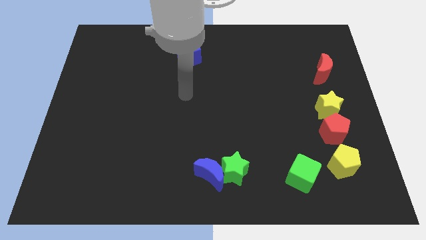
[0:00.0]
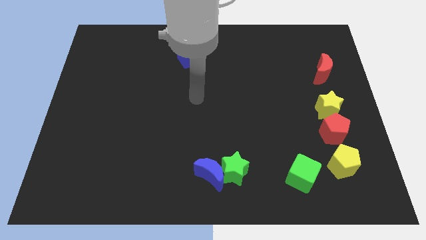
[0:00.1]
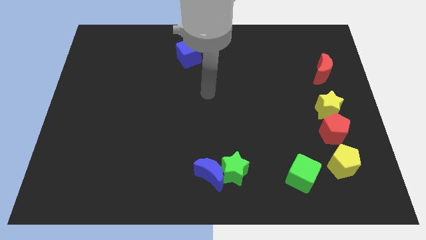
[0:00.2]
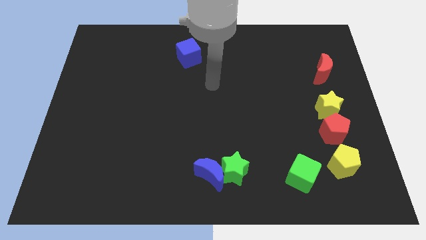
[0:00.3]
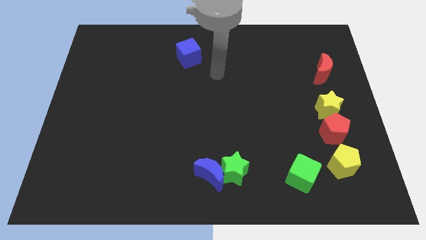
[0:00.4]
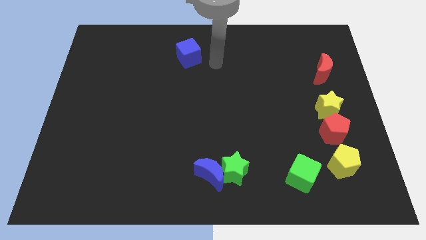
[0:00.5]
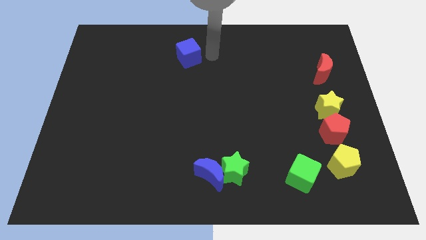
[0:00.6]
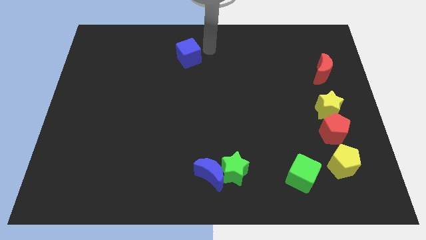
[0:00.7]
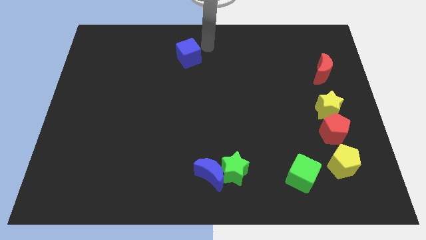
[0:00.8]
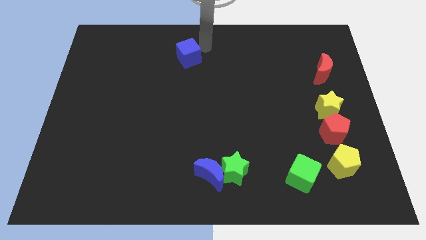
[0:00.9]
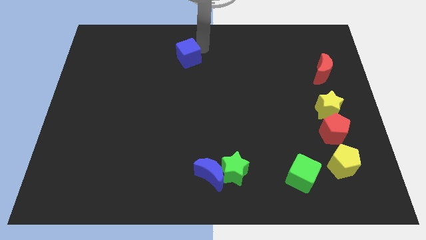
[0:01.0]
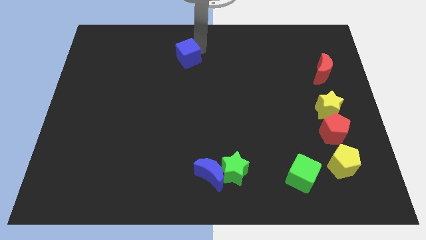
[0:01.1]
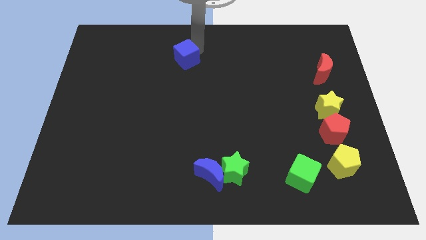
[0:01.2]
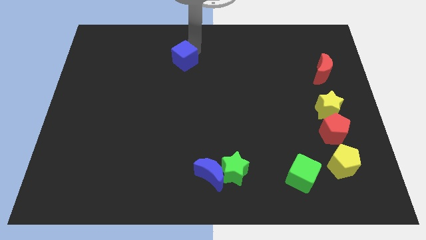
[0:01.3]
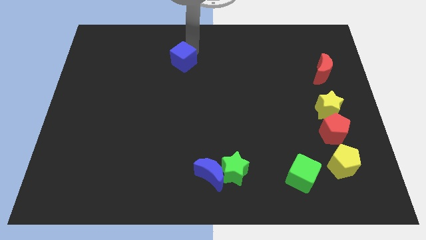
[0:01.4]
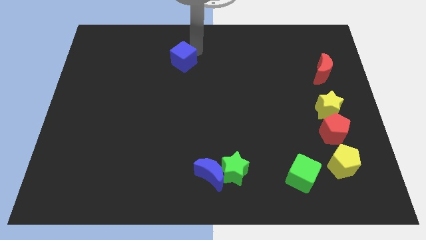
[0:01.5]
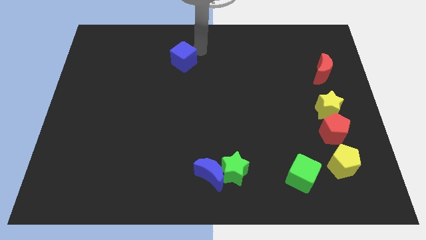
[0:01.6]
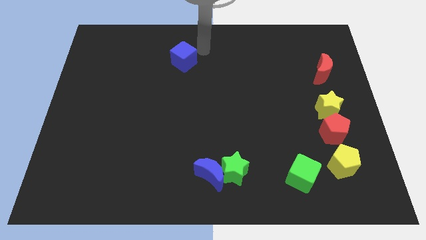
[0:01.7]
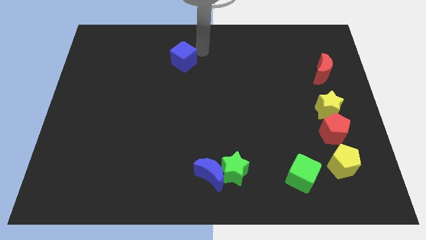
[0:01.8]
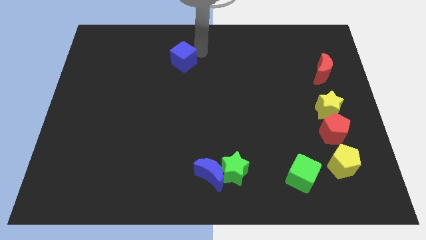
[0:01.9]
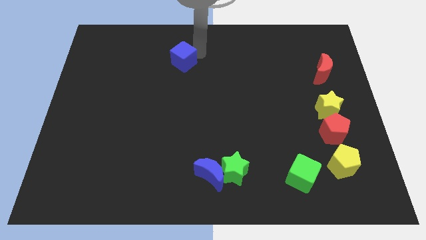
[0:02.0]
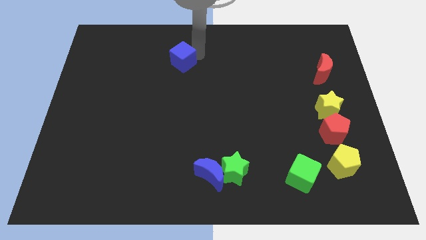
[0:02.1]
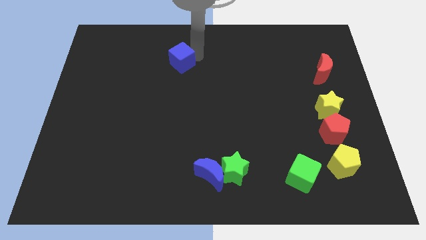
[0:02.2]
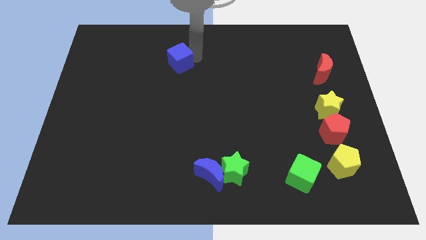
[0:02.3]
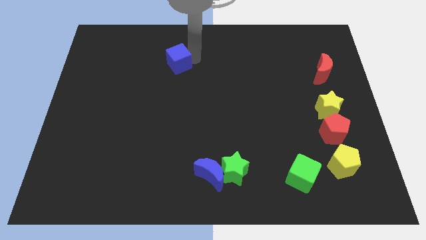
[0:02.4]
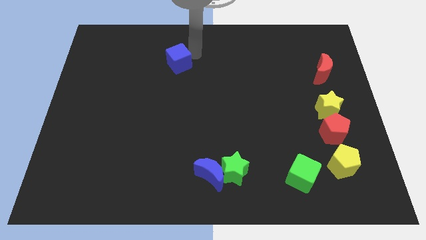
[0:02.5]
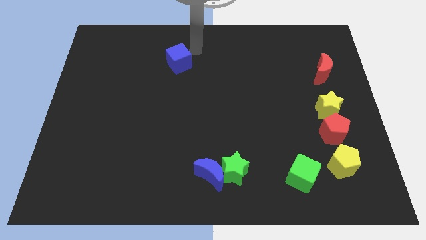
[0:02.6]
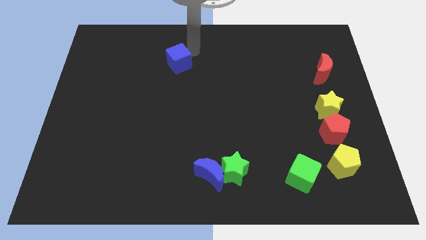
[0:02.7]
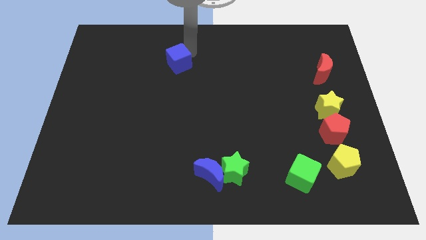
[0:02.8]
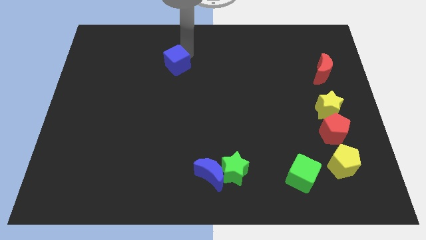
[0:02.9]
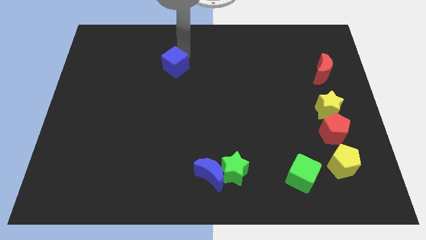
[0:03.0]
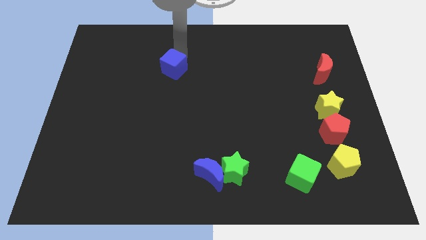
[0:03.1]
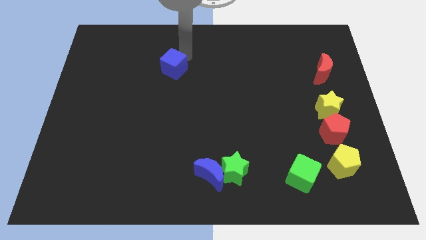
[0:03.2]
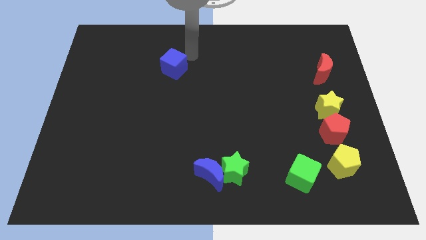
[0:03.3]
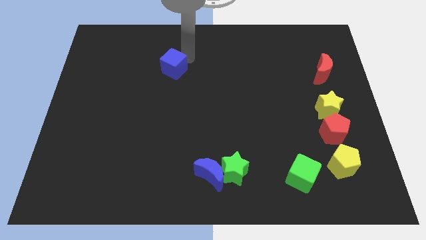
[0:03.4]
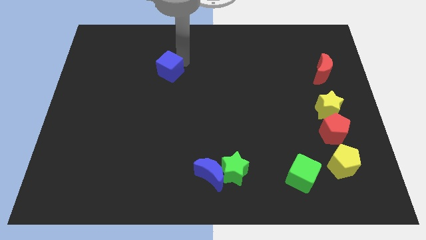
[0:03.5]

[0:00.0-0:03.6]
move the blue cube a bit downwards and left diagonally

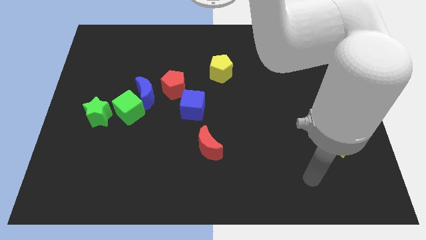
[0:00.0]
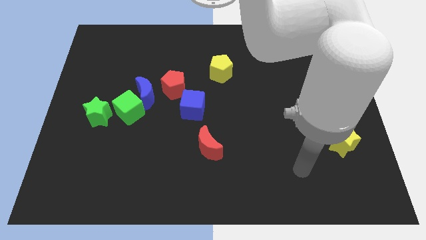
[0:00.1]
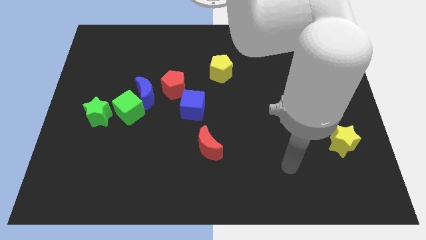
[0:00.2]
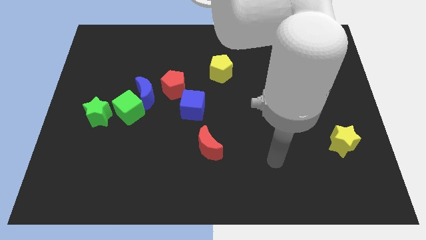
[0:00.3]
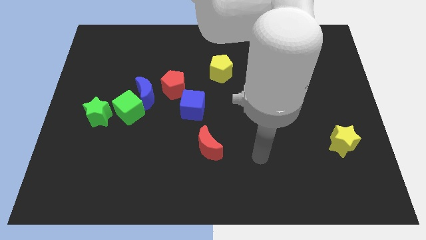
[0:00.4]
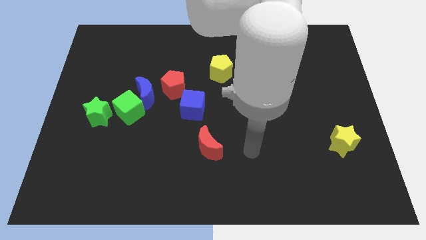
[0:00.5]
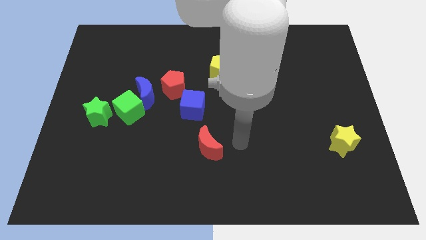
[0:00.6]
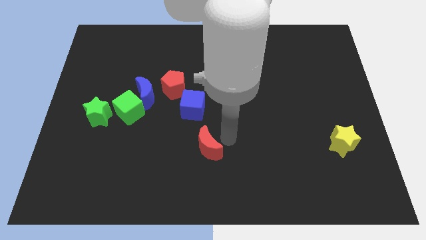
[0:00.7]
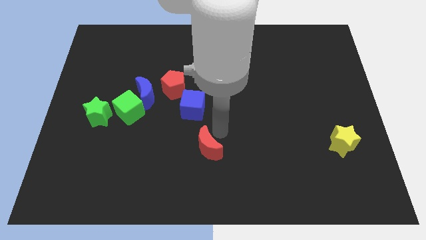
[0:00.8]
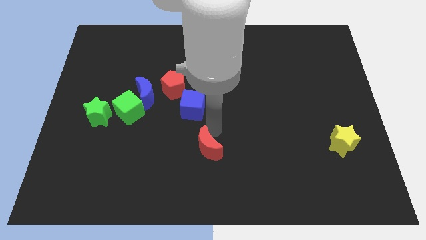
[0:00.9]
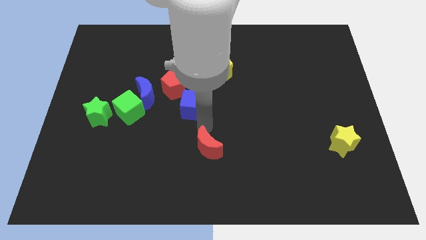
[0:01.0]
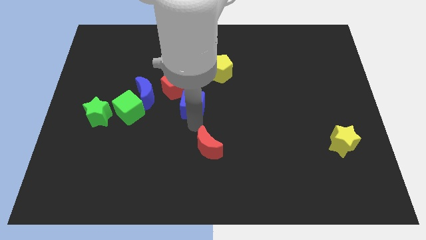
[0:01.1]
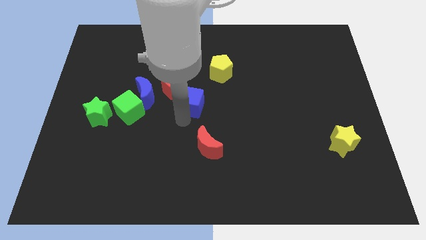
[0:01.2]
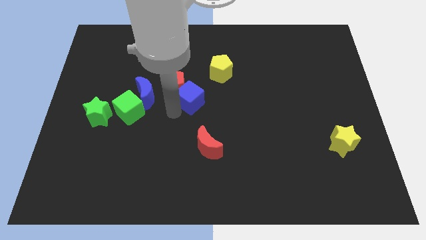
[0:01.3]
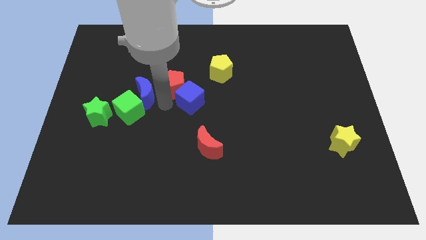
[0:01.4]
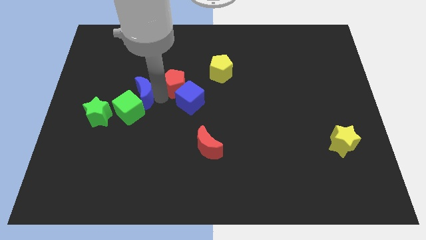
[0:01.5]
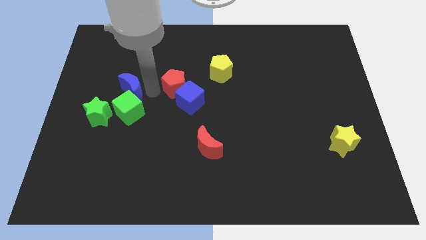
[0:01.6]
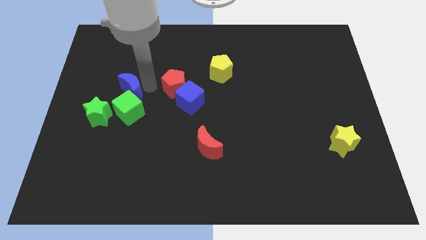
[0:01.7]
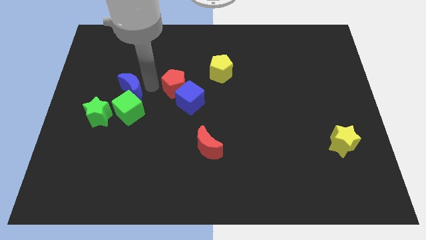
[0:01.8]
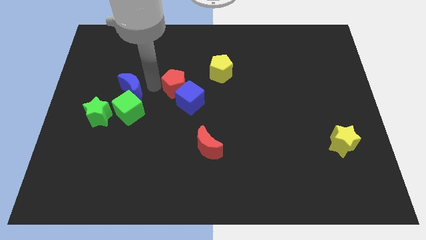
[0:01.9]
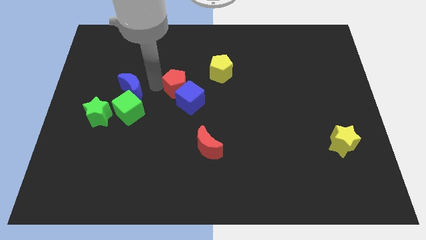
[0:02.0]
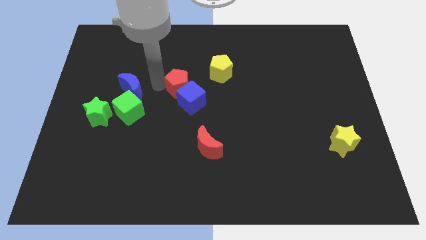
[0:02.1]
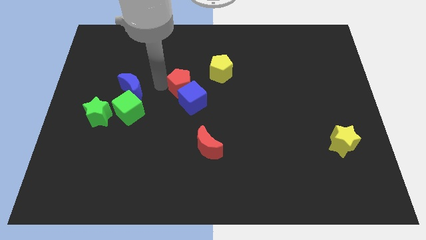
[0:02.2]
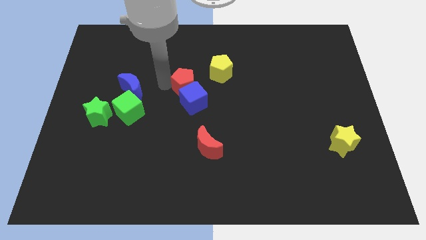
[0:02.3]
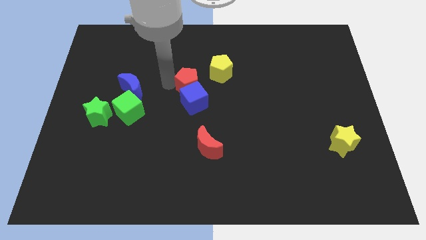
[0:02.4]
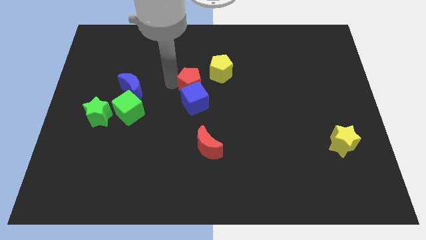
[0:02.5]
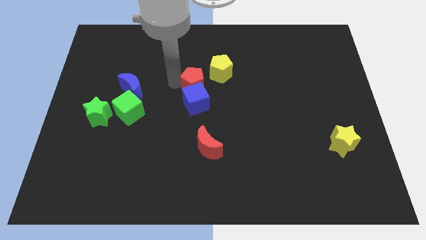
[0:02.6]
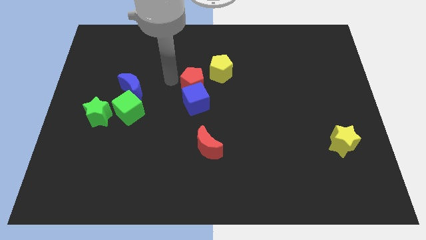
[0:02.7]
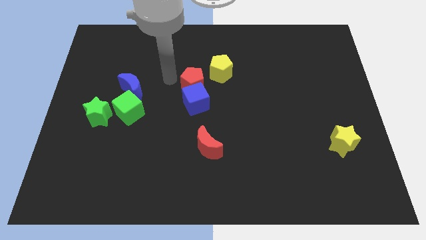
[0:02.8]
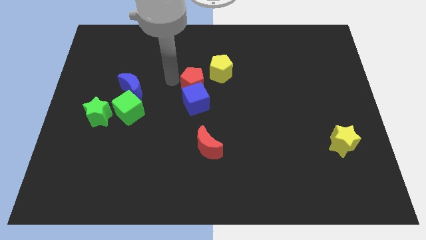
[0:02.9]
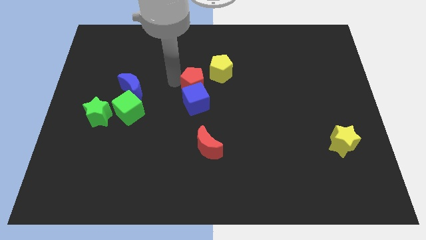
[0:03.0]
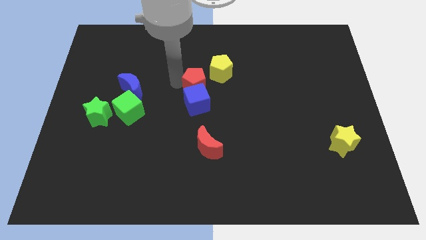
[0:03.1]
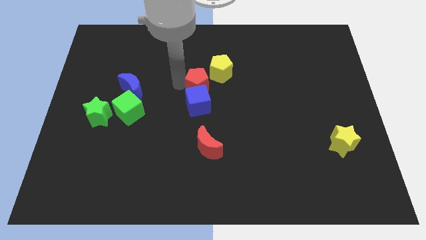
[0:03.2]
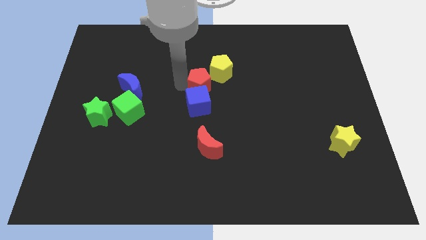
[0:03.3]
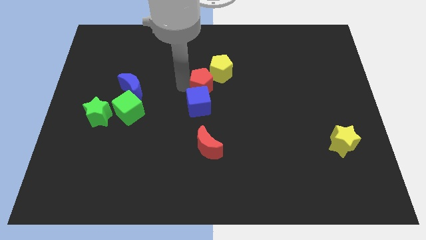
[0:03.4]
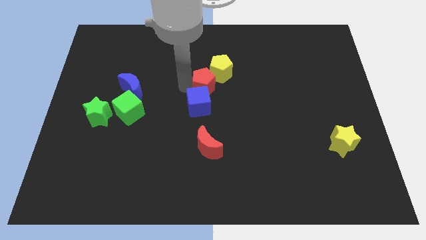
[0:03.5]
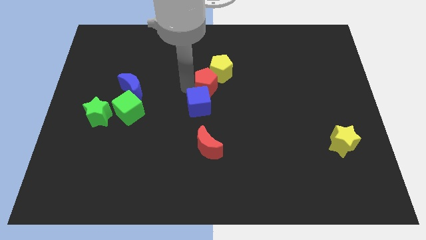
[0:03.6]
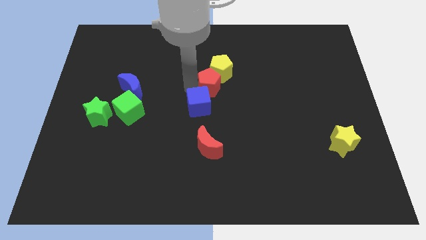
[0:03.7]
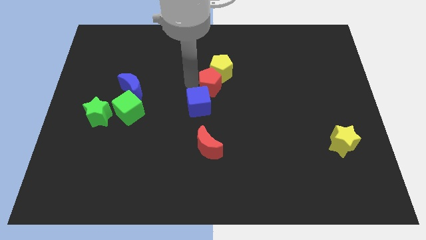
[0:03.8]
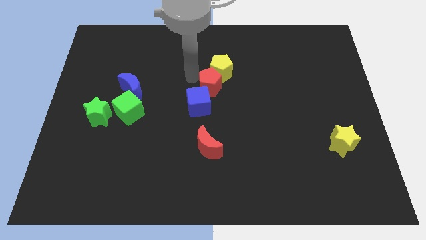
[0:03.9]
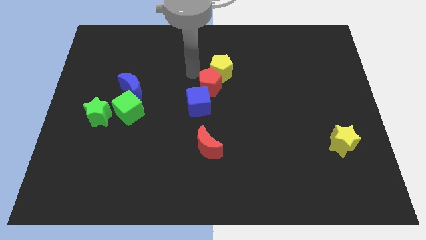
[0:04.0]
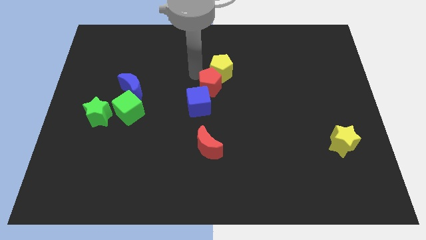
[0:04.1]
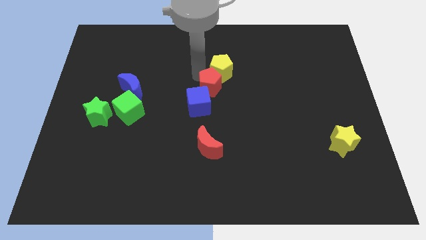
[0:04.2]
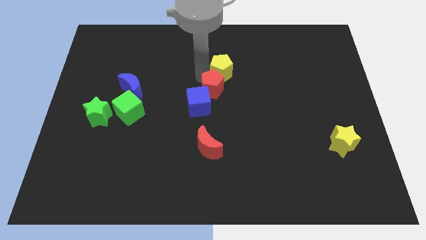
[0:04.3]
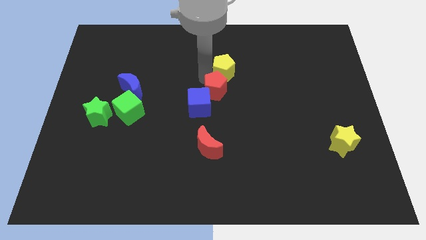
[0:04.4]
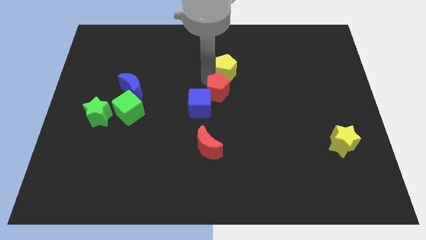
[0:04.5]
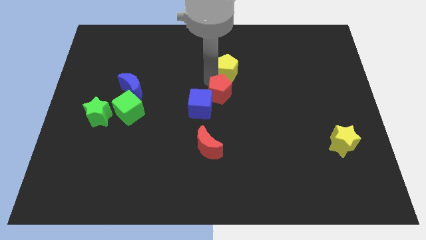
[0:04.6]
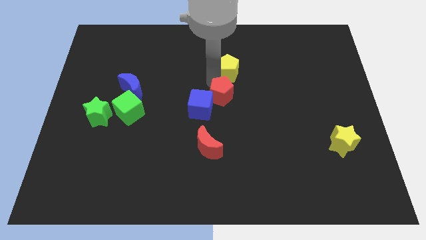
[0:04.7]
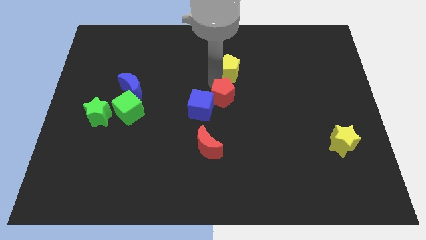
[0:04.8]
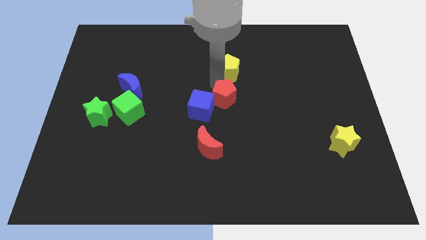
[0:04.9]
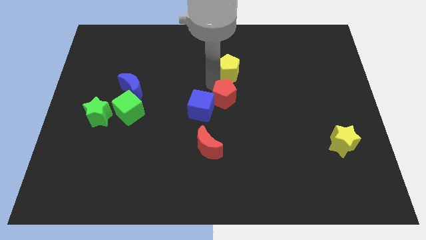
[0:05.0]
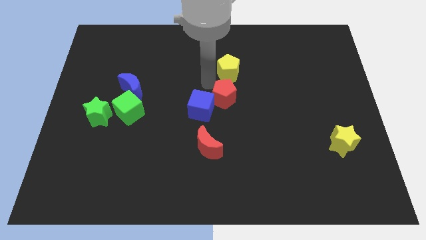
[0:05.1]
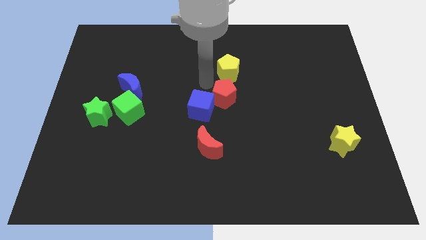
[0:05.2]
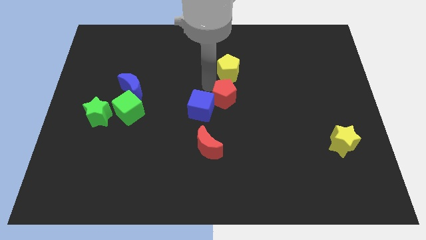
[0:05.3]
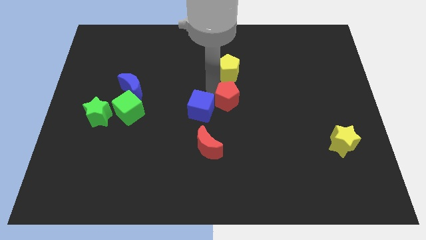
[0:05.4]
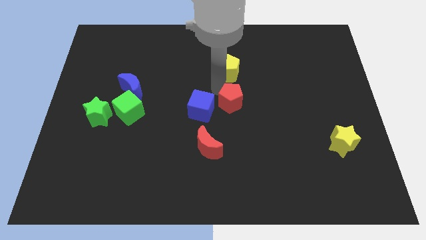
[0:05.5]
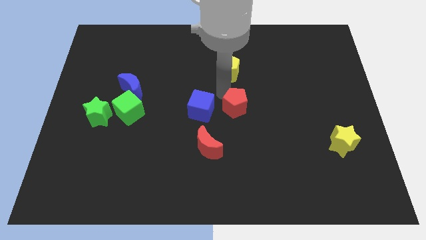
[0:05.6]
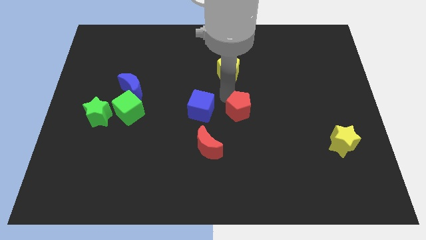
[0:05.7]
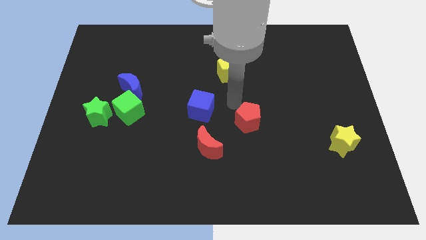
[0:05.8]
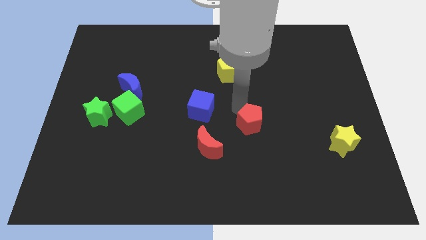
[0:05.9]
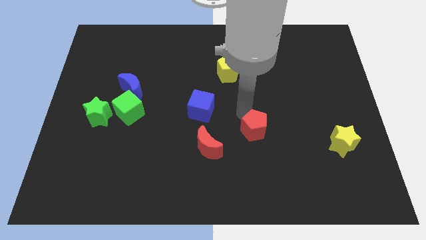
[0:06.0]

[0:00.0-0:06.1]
move the red pentagon downwards and then right
